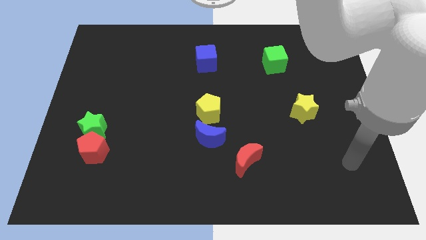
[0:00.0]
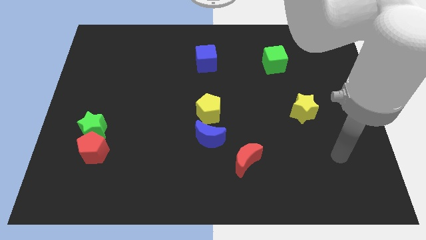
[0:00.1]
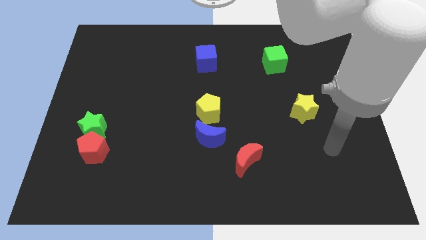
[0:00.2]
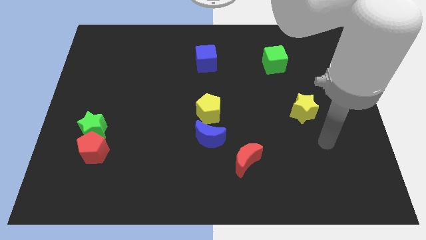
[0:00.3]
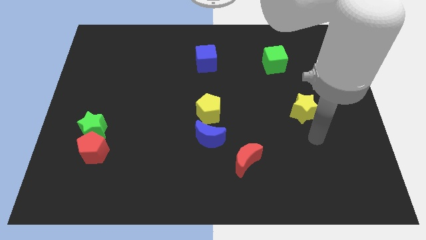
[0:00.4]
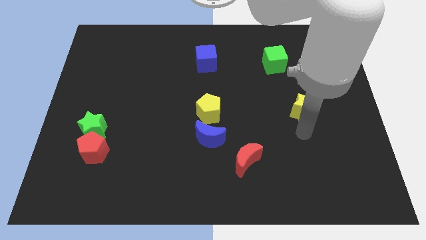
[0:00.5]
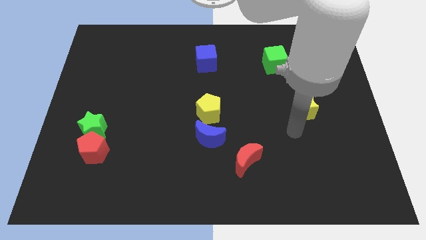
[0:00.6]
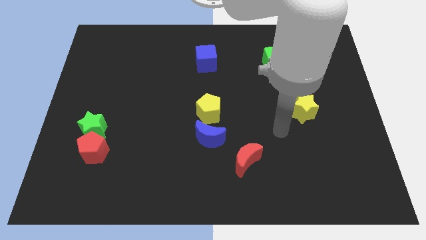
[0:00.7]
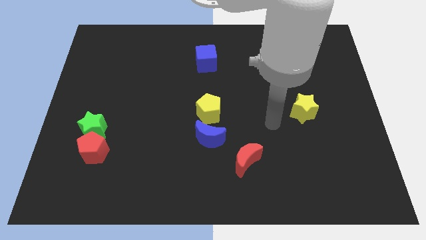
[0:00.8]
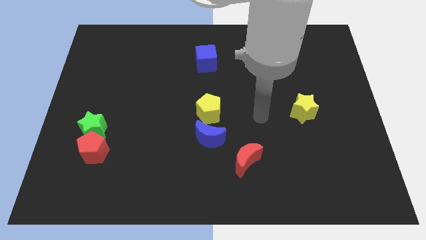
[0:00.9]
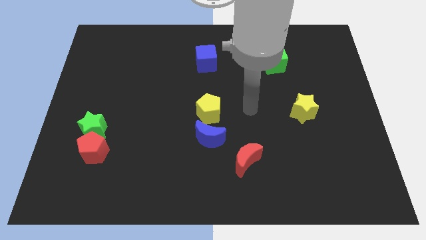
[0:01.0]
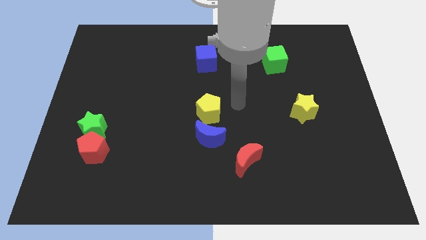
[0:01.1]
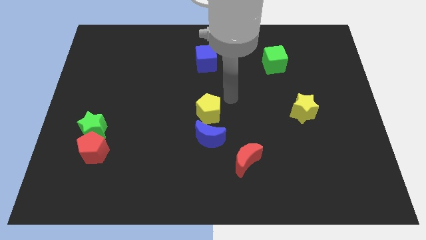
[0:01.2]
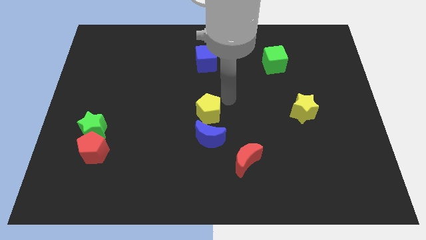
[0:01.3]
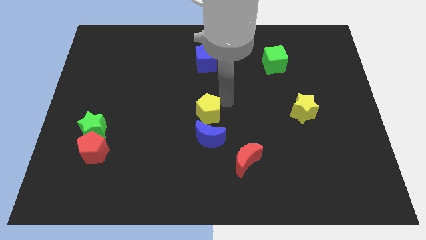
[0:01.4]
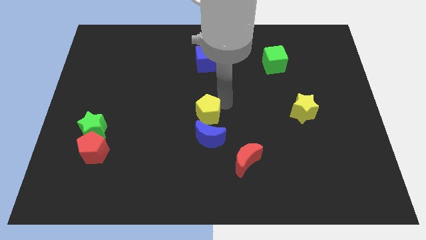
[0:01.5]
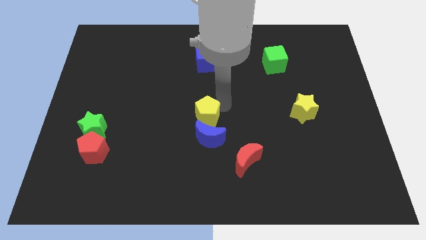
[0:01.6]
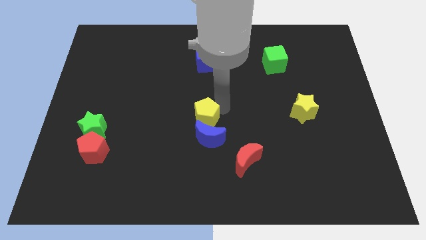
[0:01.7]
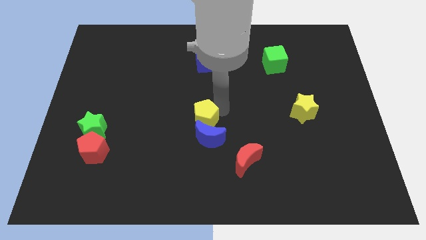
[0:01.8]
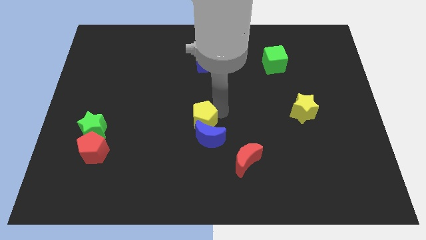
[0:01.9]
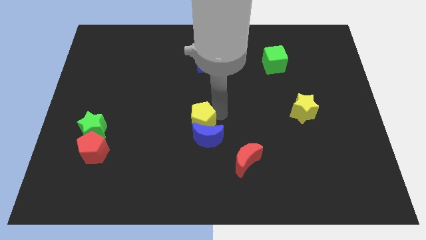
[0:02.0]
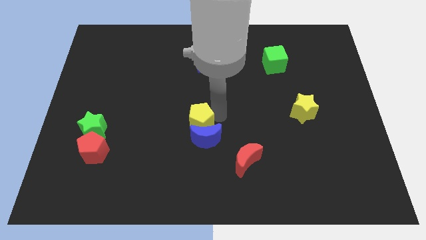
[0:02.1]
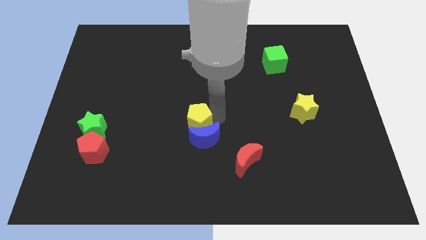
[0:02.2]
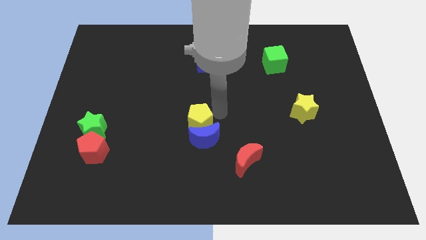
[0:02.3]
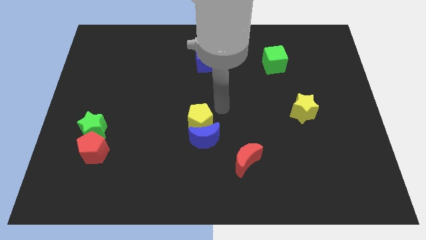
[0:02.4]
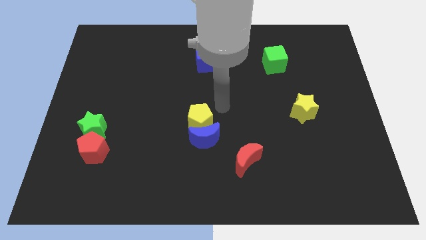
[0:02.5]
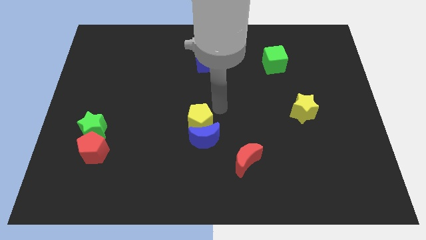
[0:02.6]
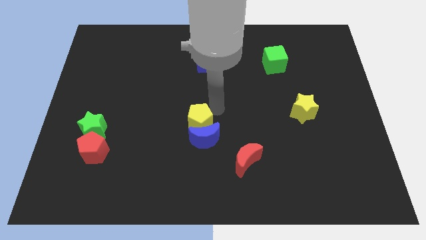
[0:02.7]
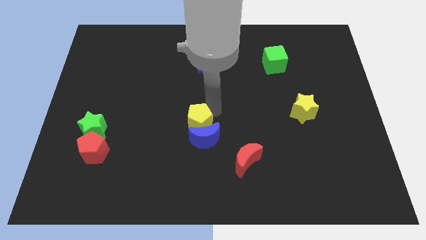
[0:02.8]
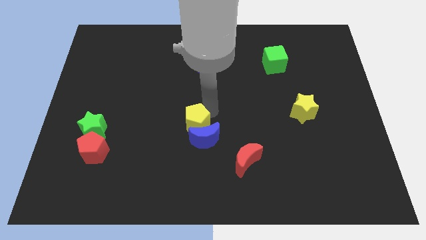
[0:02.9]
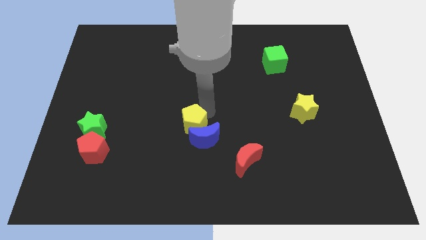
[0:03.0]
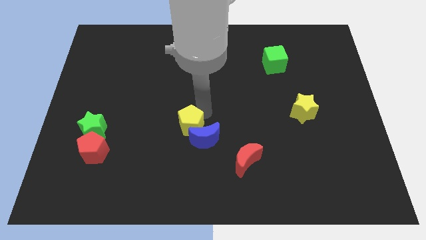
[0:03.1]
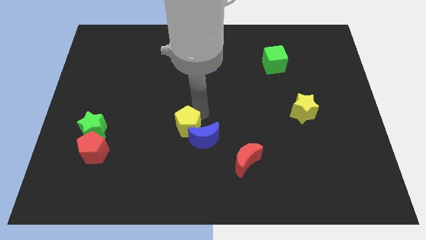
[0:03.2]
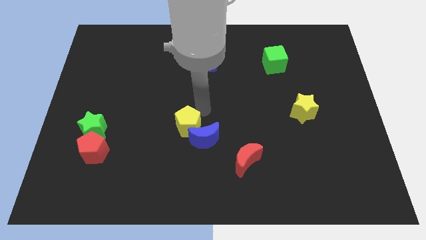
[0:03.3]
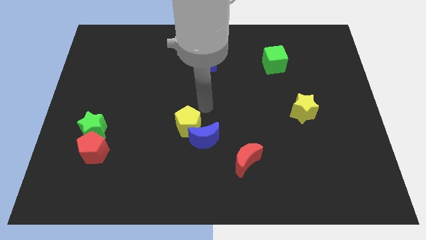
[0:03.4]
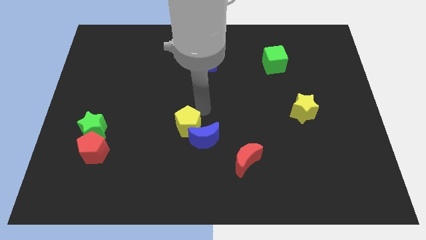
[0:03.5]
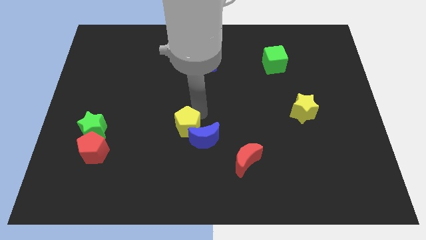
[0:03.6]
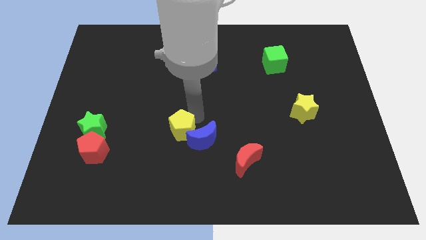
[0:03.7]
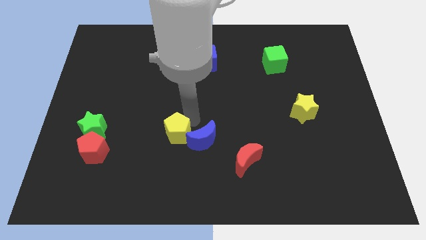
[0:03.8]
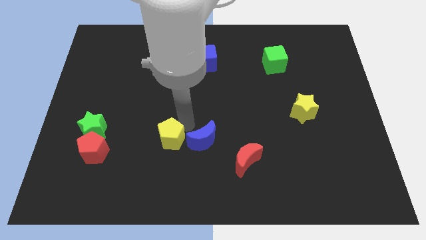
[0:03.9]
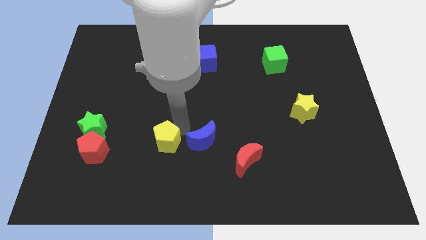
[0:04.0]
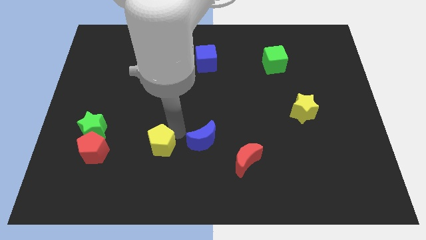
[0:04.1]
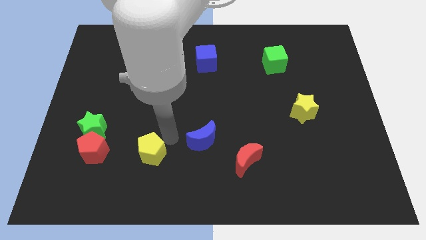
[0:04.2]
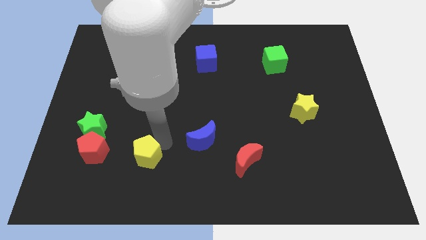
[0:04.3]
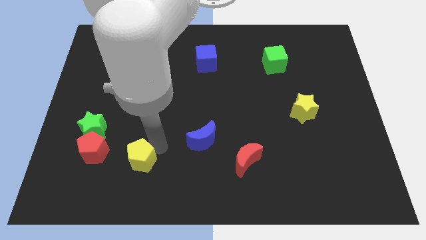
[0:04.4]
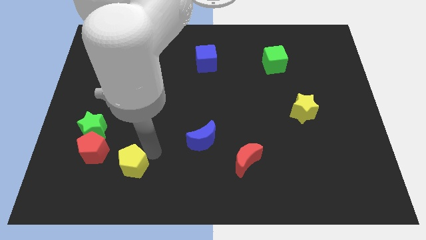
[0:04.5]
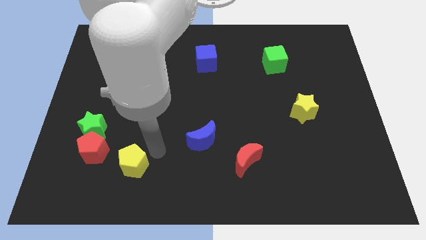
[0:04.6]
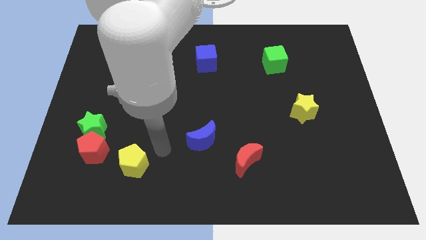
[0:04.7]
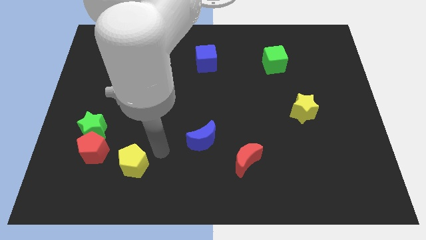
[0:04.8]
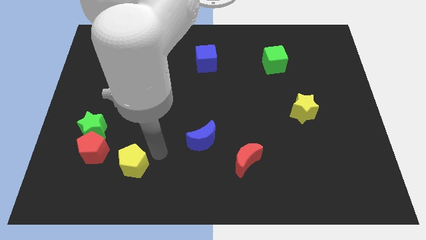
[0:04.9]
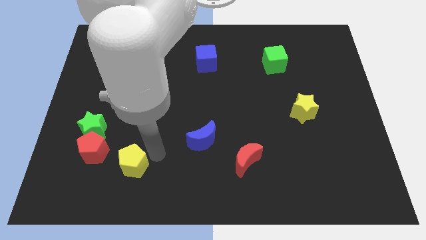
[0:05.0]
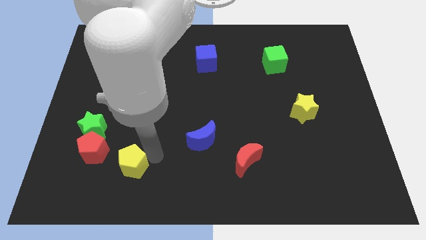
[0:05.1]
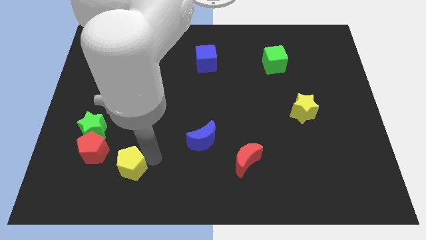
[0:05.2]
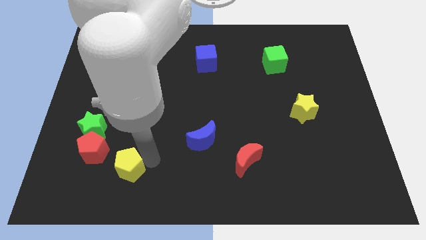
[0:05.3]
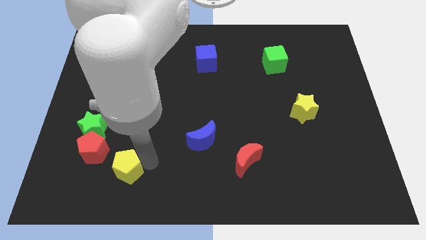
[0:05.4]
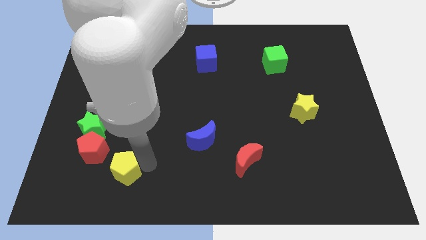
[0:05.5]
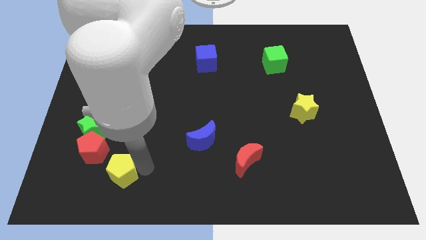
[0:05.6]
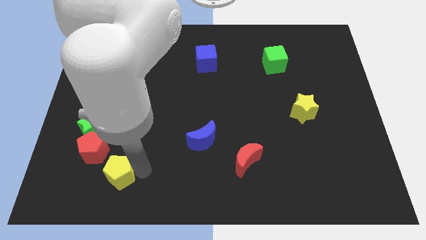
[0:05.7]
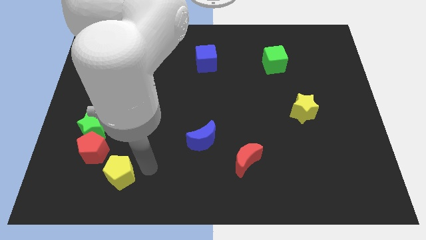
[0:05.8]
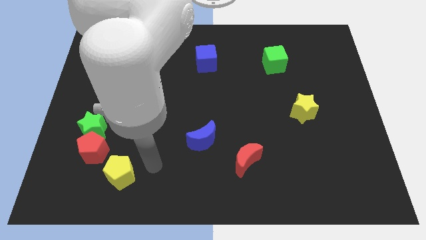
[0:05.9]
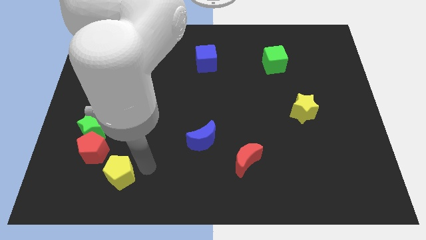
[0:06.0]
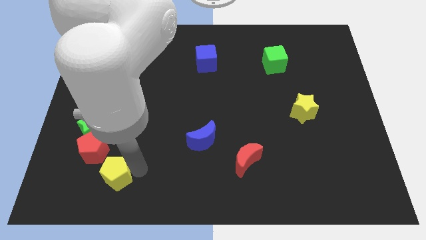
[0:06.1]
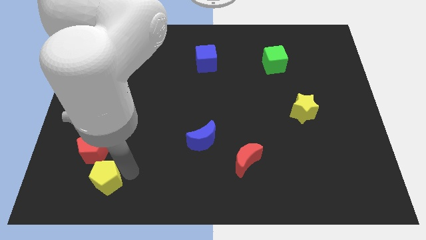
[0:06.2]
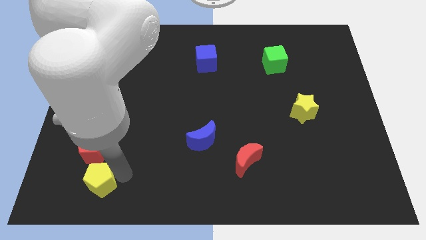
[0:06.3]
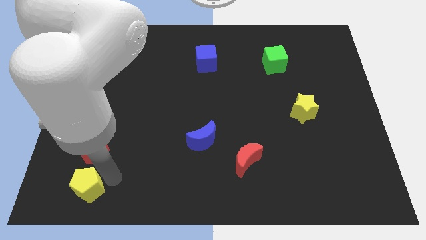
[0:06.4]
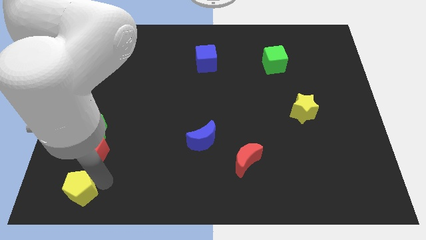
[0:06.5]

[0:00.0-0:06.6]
slide the yellow pentagon to the lower left corner

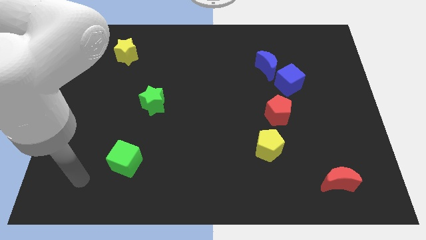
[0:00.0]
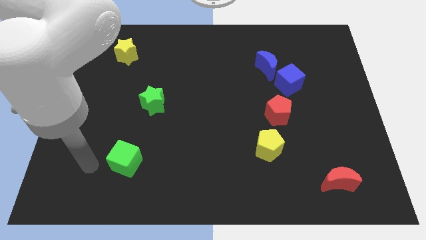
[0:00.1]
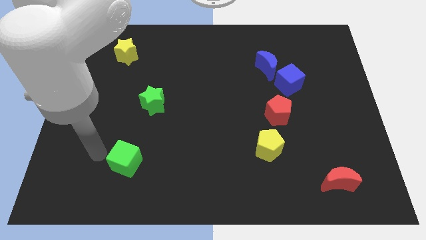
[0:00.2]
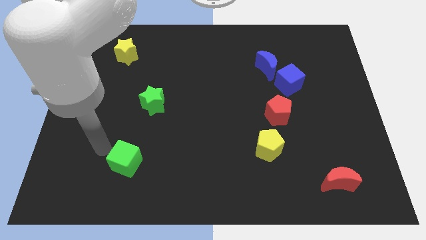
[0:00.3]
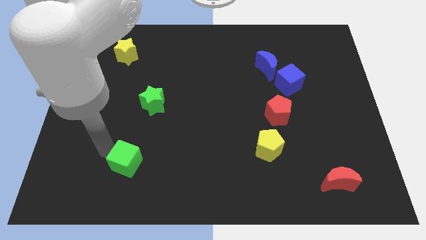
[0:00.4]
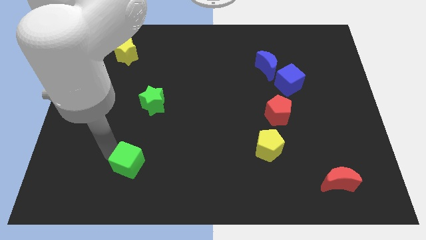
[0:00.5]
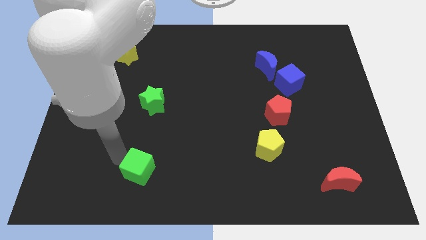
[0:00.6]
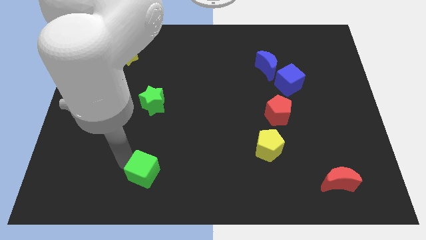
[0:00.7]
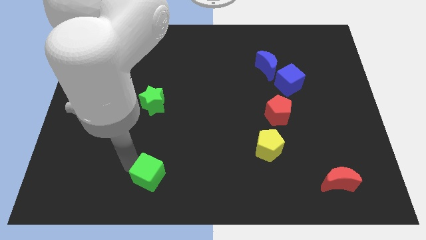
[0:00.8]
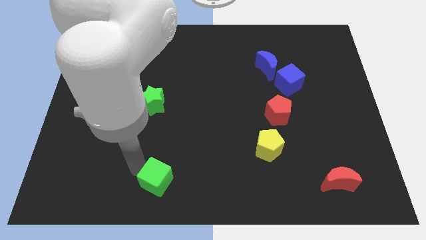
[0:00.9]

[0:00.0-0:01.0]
push the green cube to the bottom
